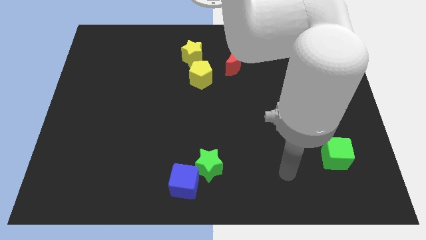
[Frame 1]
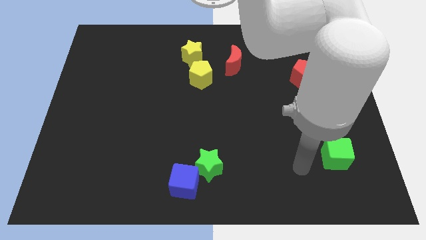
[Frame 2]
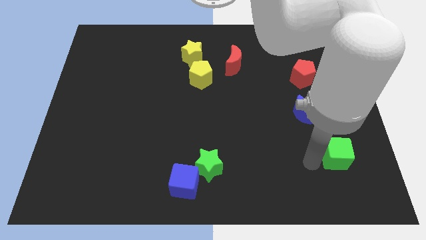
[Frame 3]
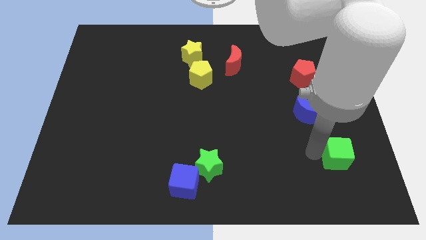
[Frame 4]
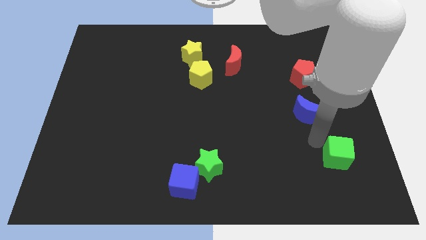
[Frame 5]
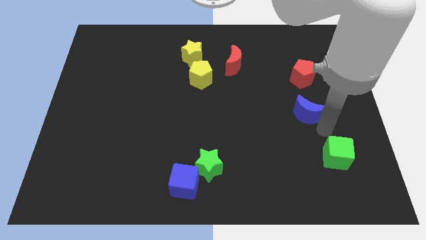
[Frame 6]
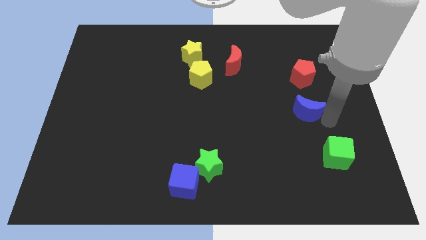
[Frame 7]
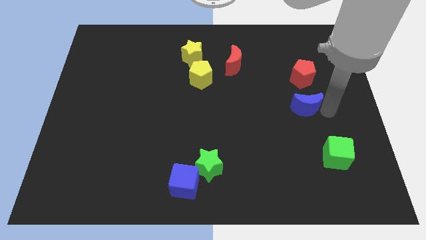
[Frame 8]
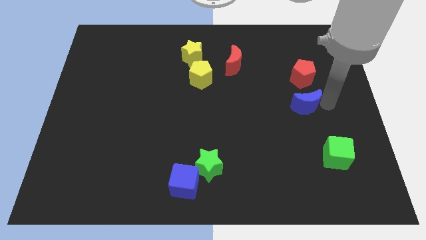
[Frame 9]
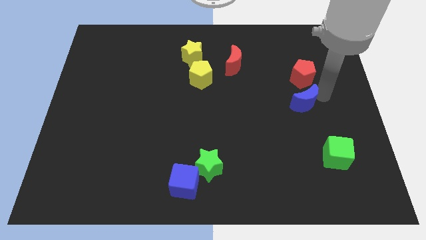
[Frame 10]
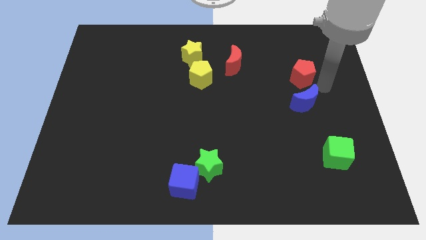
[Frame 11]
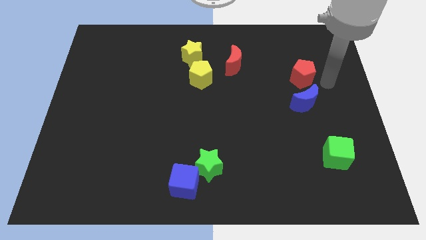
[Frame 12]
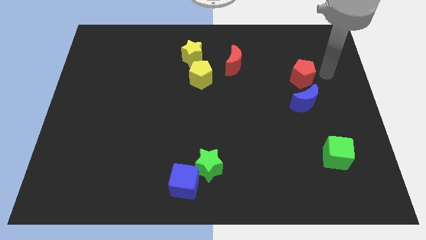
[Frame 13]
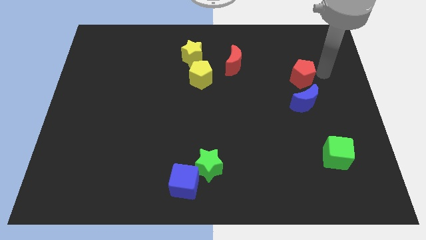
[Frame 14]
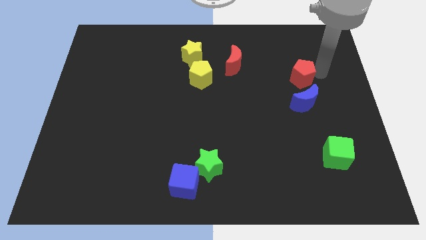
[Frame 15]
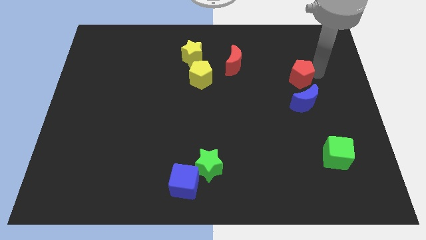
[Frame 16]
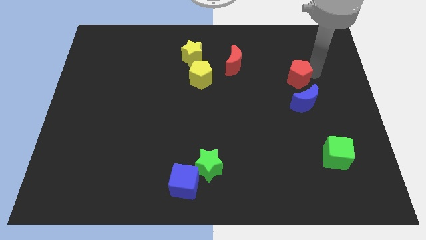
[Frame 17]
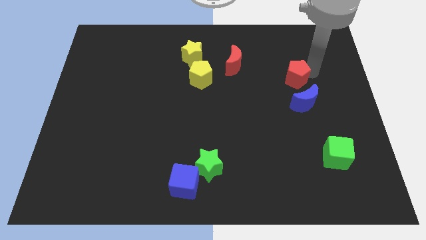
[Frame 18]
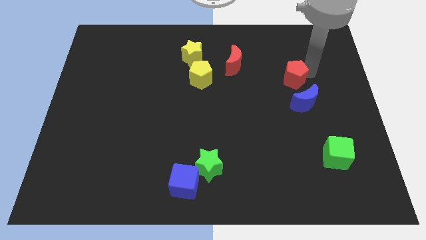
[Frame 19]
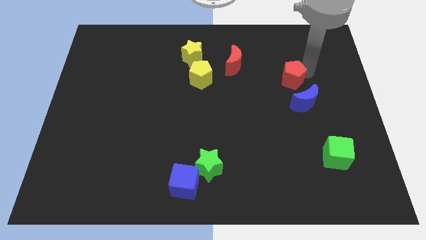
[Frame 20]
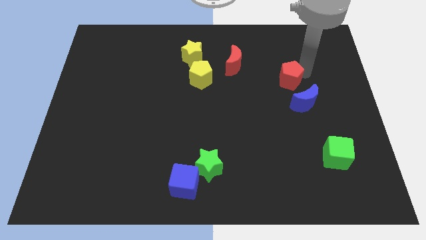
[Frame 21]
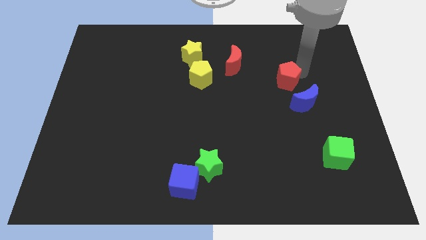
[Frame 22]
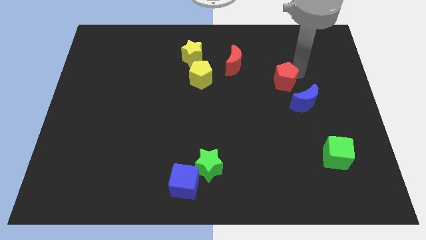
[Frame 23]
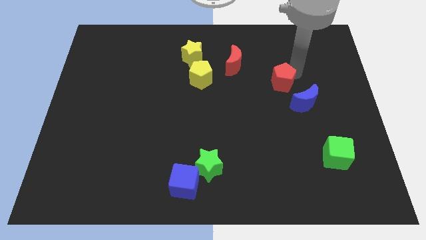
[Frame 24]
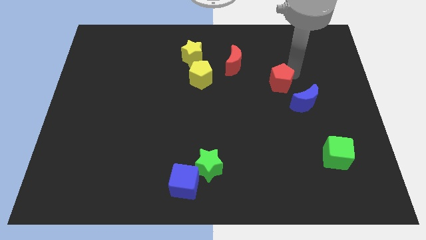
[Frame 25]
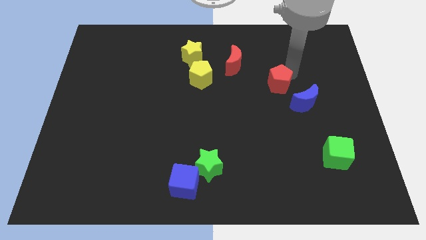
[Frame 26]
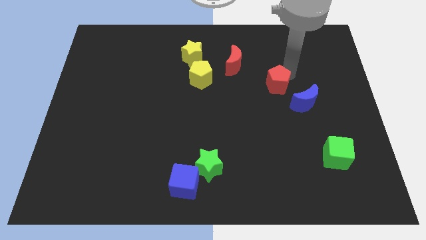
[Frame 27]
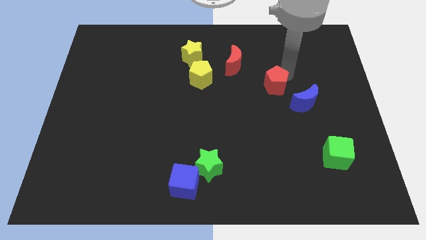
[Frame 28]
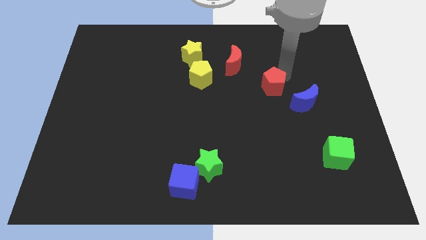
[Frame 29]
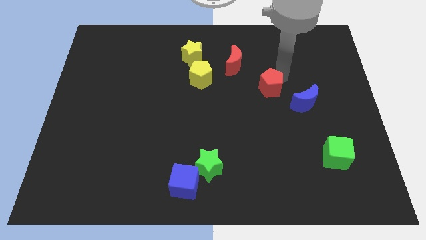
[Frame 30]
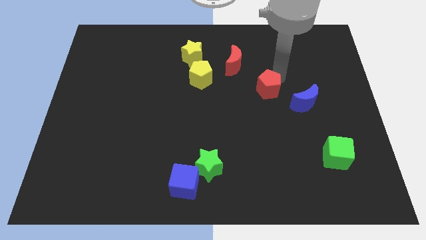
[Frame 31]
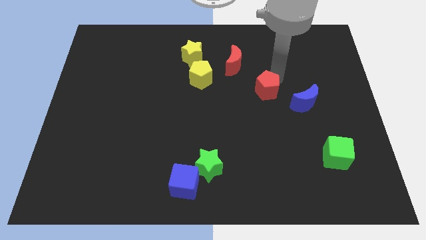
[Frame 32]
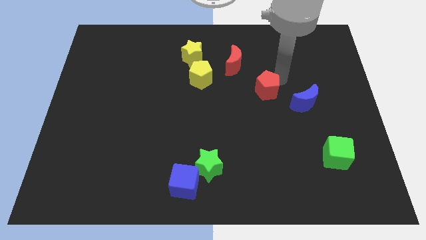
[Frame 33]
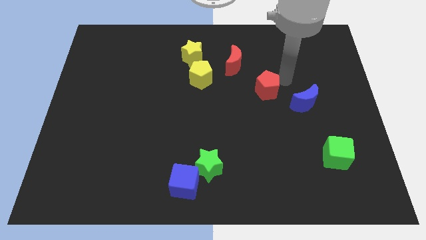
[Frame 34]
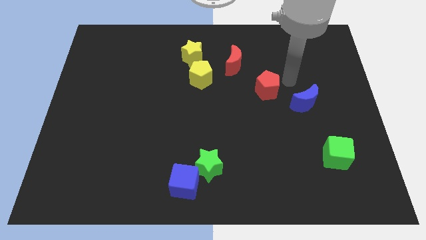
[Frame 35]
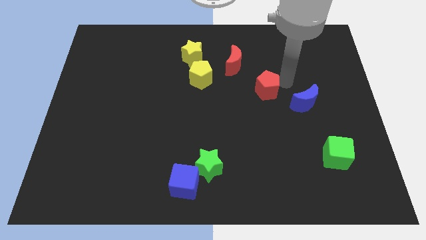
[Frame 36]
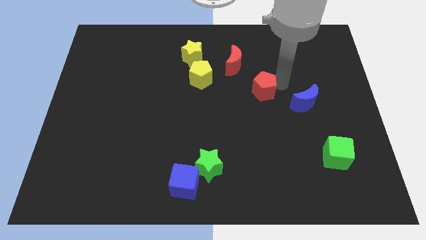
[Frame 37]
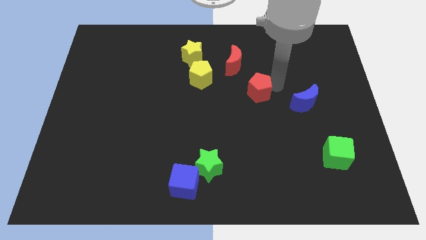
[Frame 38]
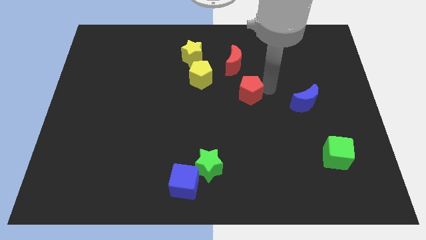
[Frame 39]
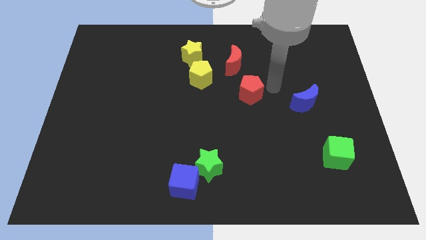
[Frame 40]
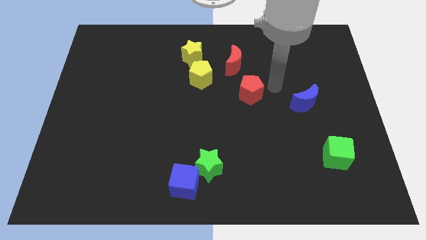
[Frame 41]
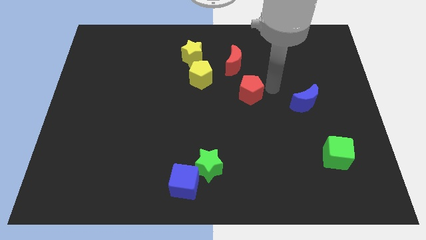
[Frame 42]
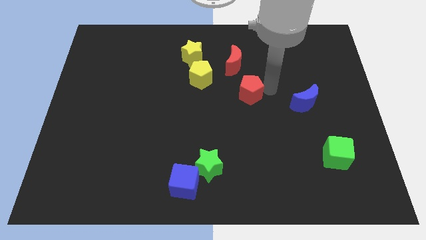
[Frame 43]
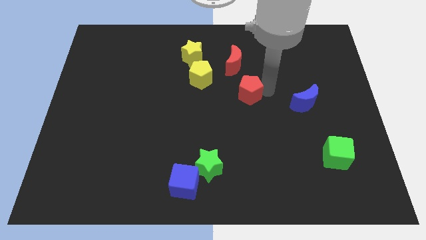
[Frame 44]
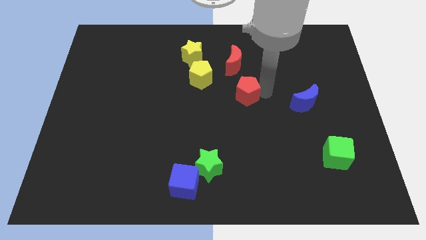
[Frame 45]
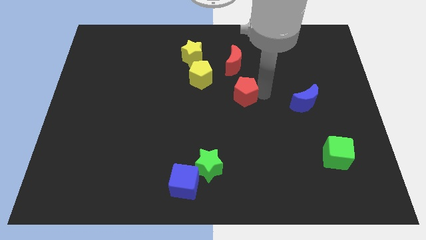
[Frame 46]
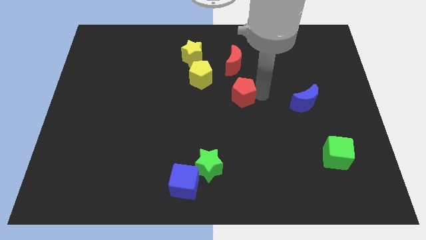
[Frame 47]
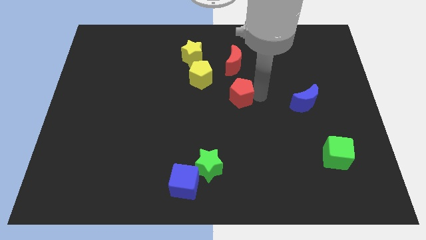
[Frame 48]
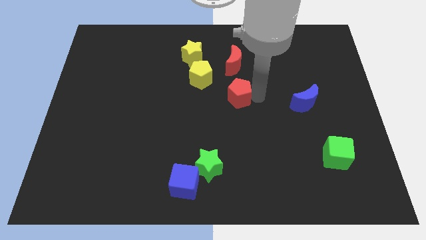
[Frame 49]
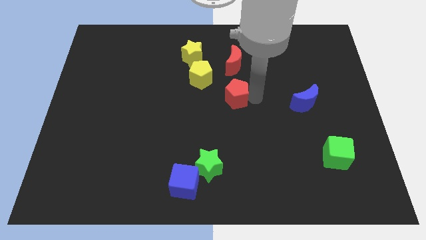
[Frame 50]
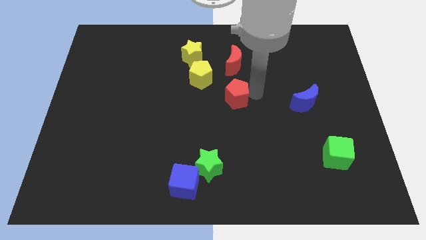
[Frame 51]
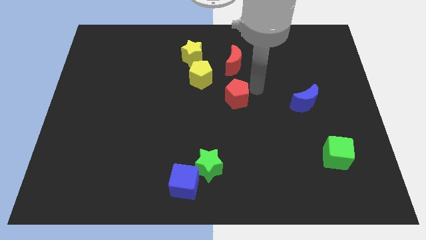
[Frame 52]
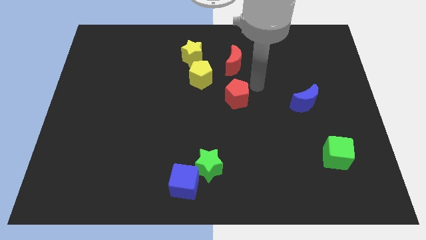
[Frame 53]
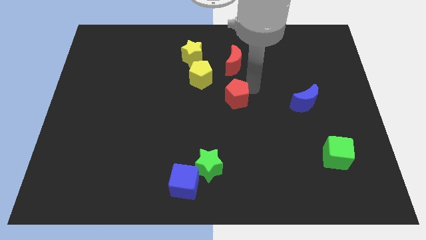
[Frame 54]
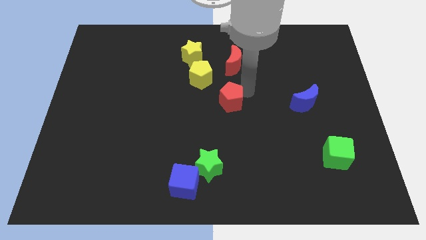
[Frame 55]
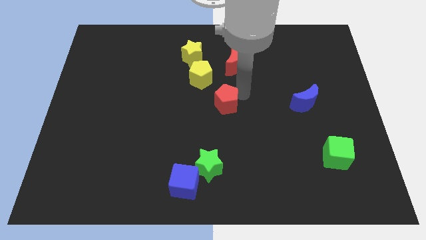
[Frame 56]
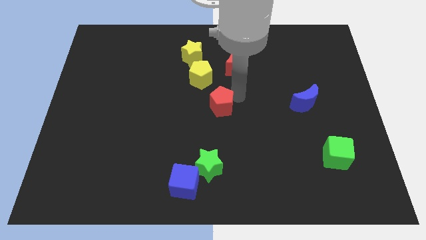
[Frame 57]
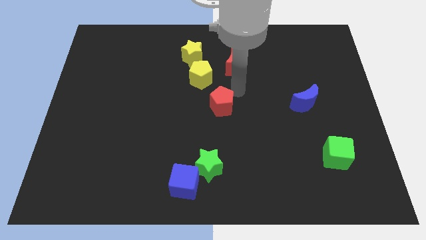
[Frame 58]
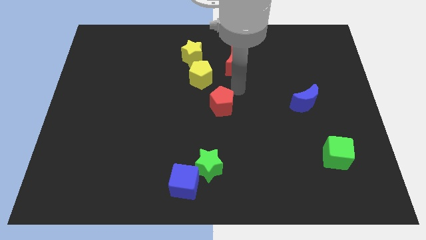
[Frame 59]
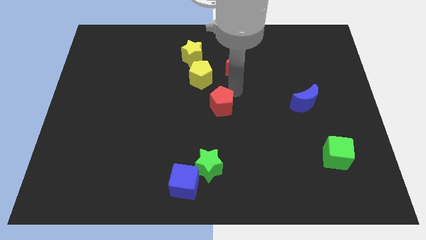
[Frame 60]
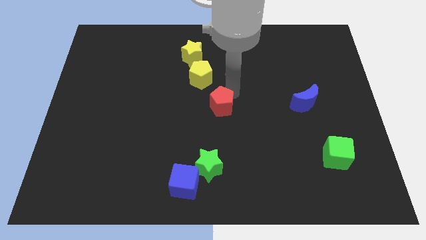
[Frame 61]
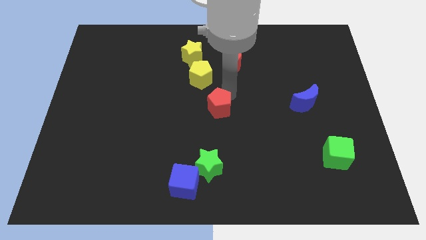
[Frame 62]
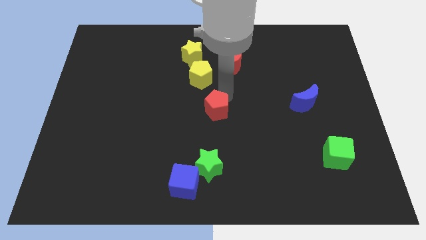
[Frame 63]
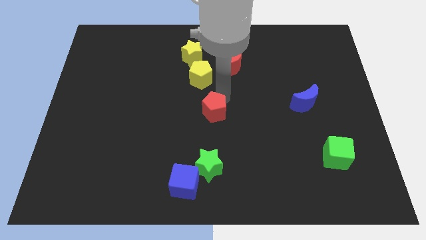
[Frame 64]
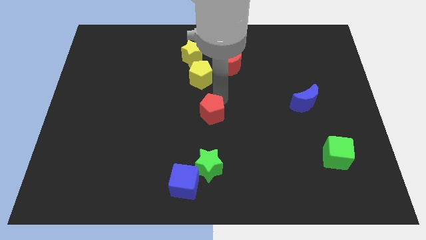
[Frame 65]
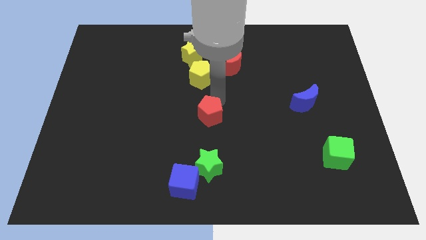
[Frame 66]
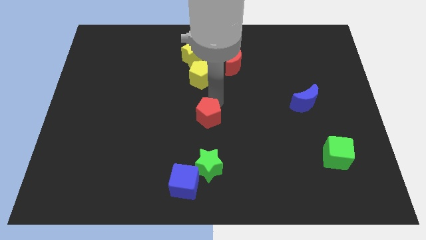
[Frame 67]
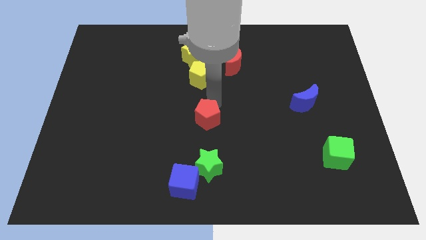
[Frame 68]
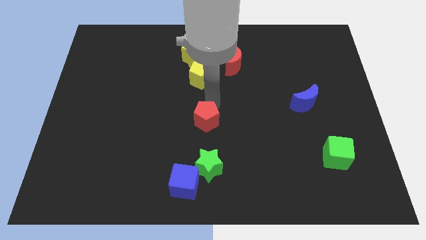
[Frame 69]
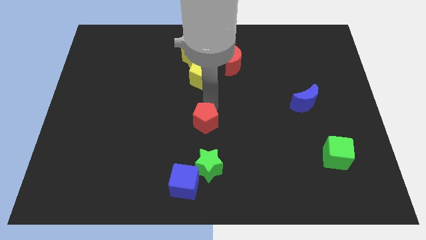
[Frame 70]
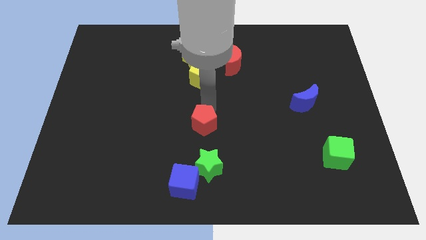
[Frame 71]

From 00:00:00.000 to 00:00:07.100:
move the red pentagon above the blue cube
